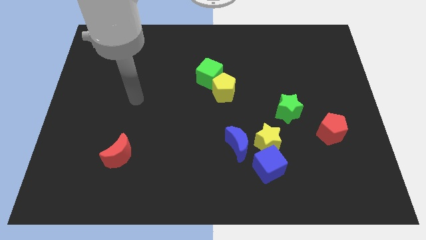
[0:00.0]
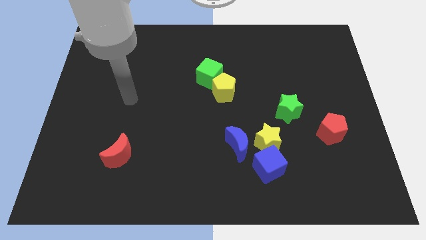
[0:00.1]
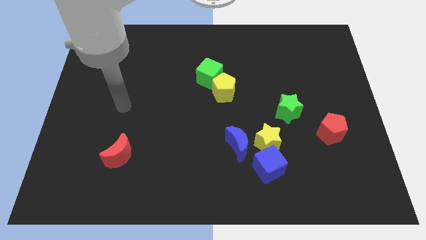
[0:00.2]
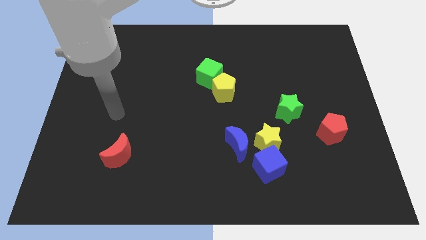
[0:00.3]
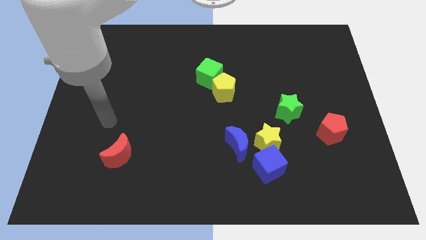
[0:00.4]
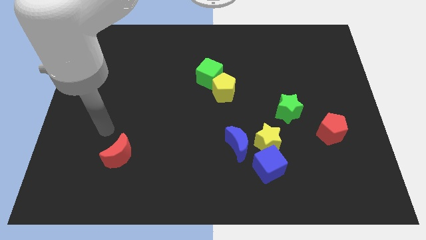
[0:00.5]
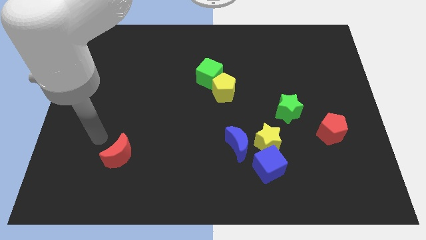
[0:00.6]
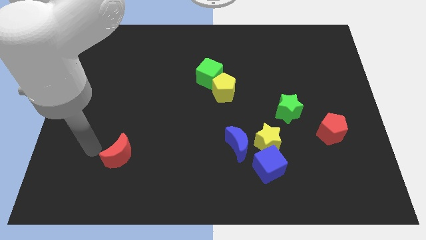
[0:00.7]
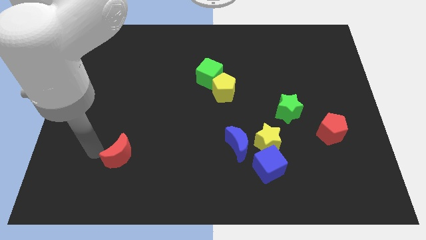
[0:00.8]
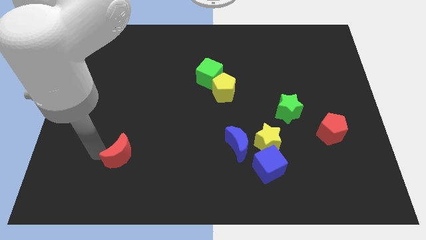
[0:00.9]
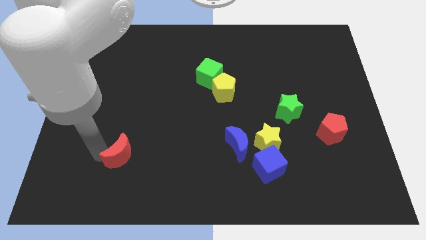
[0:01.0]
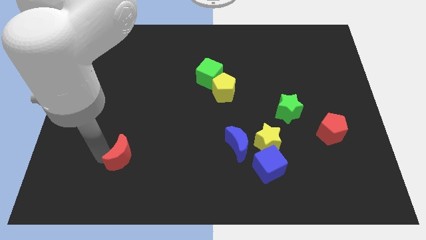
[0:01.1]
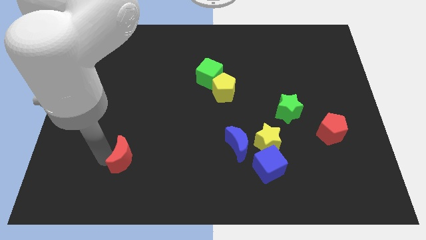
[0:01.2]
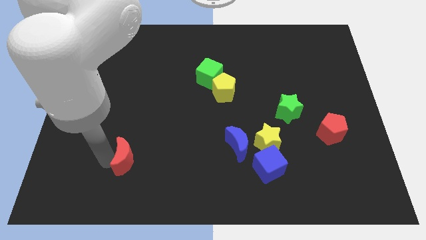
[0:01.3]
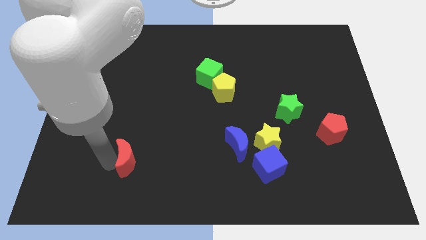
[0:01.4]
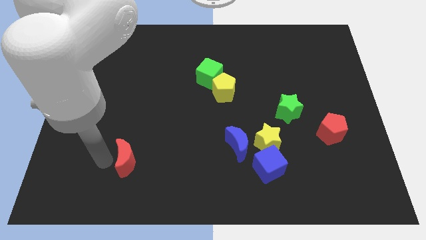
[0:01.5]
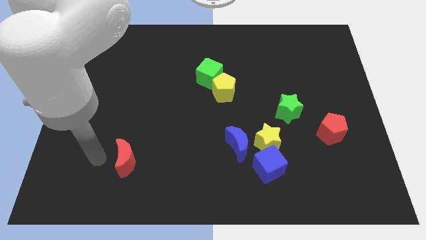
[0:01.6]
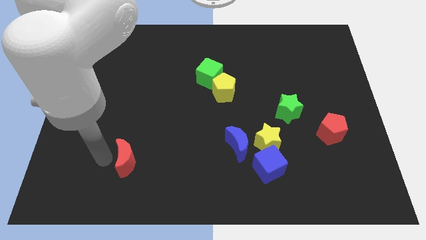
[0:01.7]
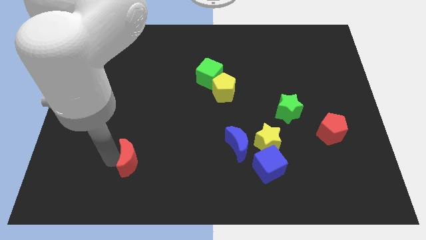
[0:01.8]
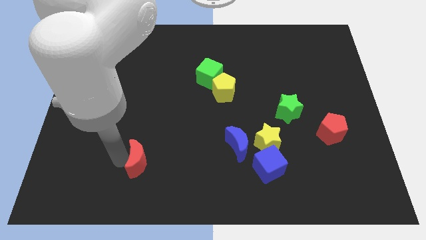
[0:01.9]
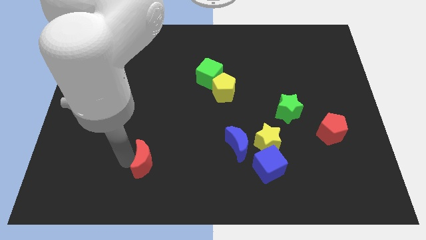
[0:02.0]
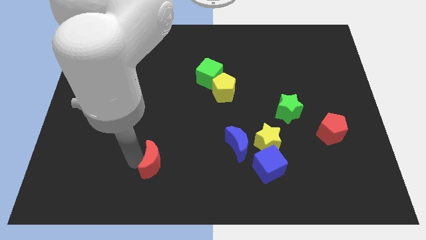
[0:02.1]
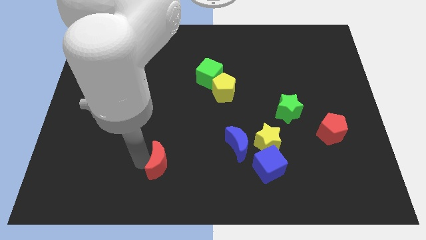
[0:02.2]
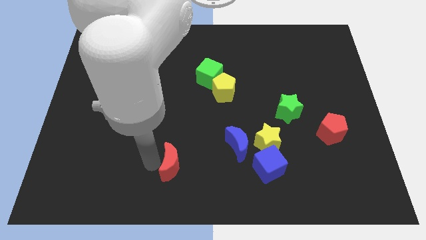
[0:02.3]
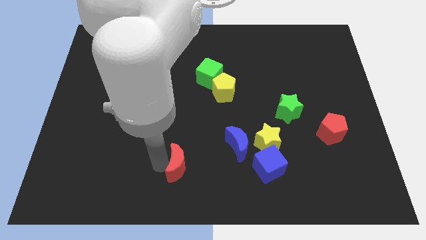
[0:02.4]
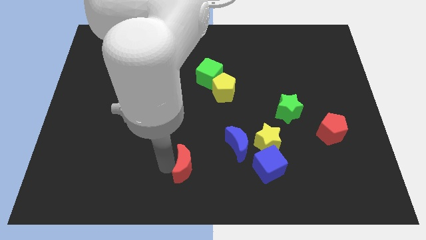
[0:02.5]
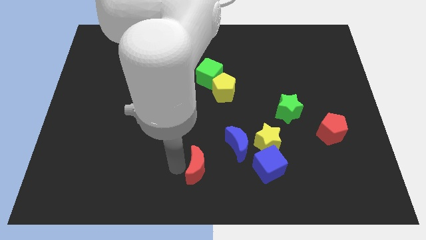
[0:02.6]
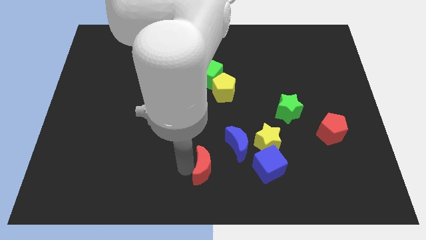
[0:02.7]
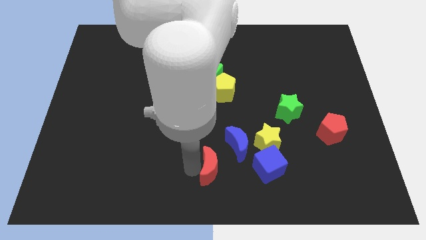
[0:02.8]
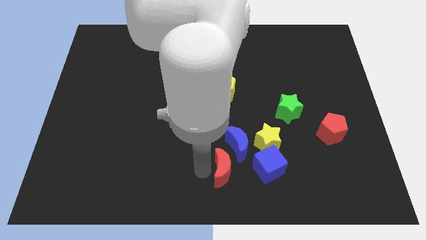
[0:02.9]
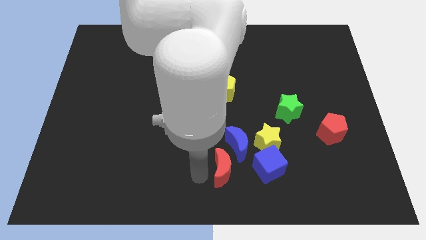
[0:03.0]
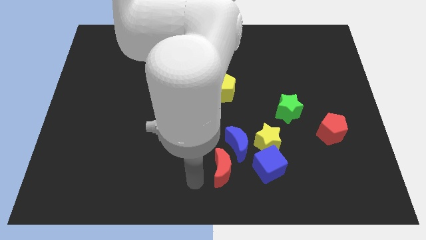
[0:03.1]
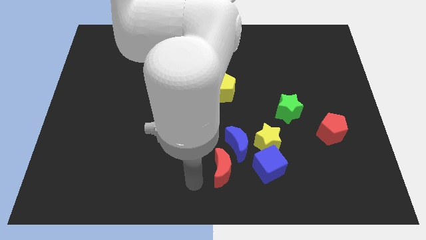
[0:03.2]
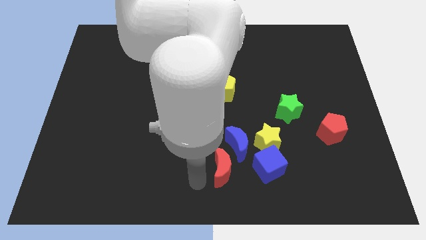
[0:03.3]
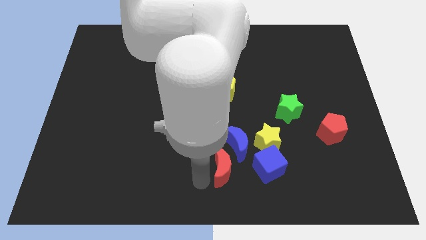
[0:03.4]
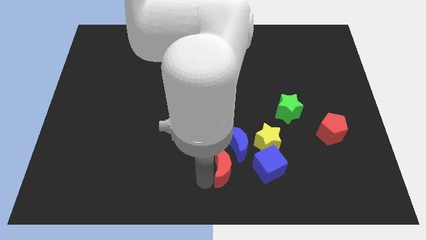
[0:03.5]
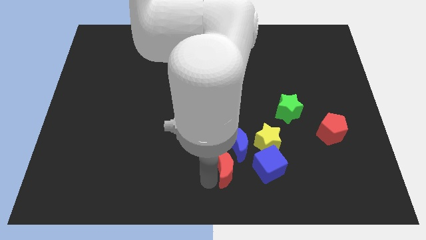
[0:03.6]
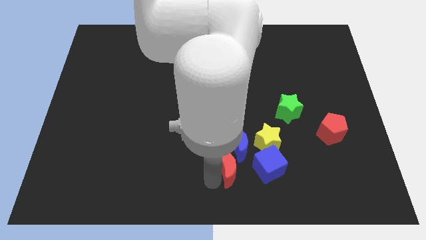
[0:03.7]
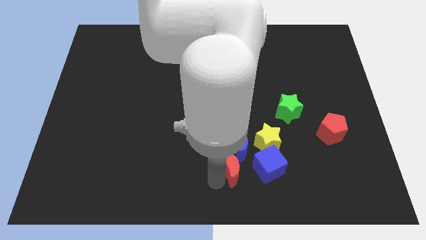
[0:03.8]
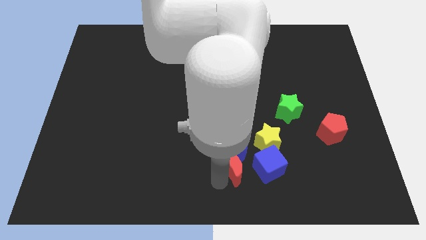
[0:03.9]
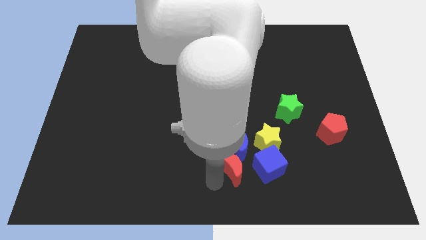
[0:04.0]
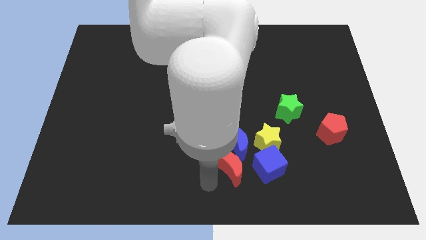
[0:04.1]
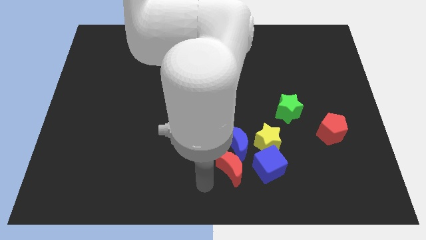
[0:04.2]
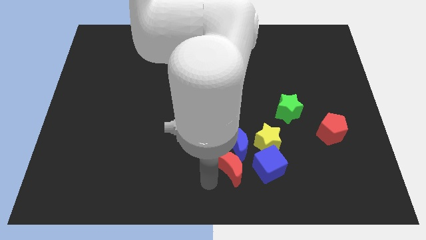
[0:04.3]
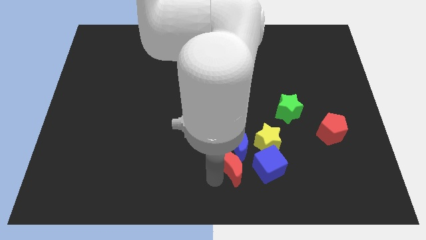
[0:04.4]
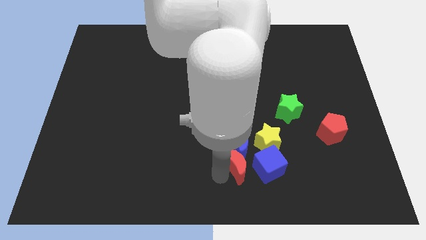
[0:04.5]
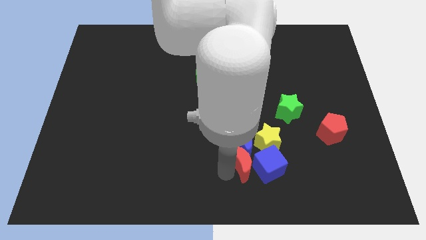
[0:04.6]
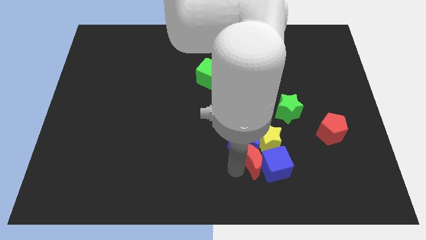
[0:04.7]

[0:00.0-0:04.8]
push the red moon next to the yellow star

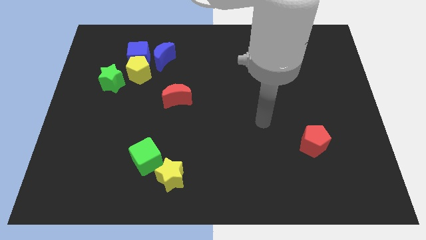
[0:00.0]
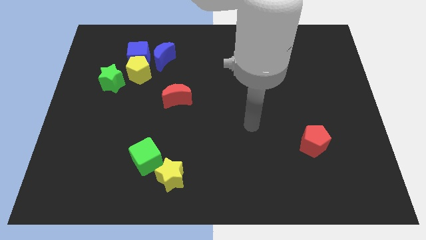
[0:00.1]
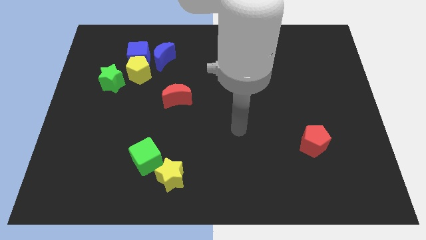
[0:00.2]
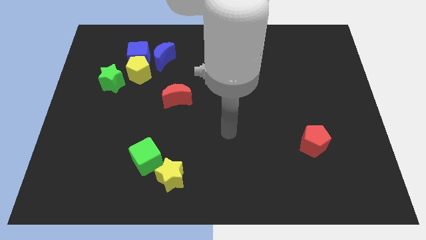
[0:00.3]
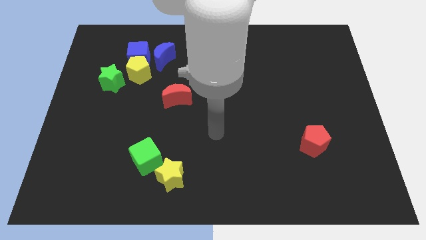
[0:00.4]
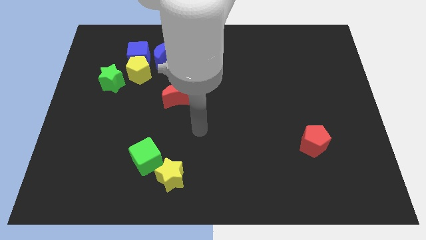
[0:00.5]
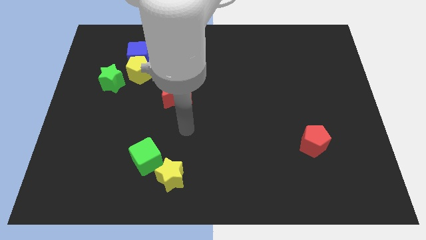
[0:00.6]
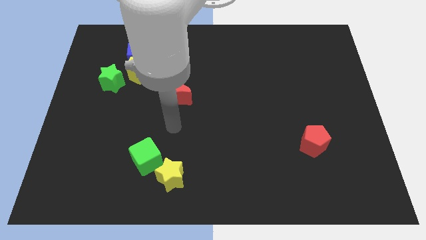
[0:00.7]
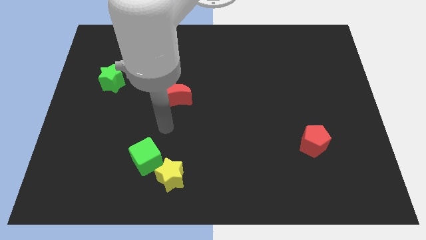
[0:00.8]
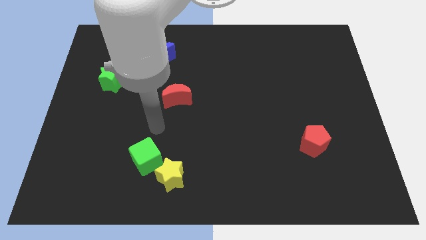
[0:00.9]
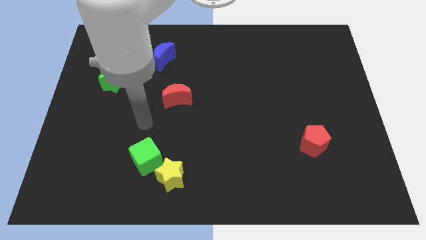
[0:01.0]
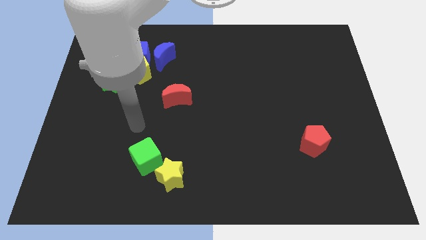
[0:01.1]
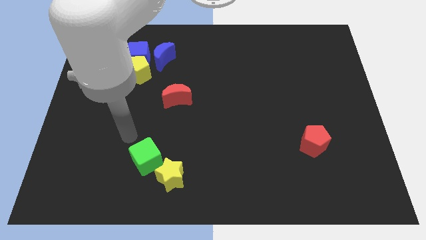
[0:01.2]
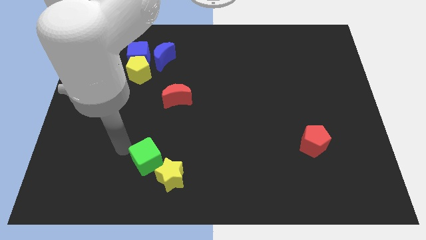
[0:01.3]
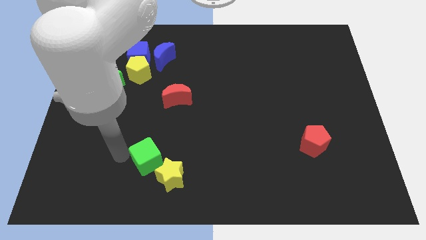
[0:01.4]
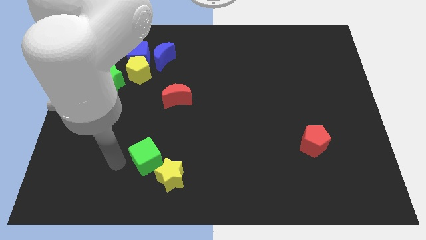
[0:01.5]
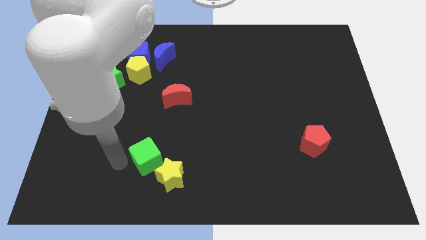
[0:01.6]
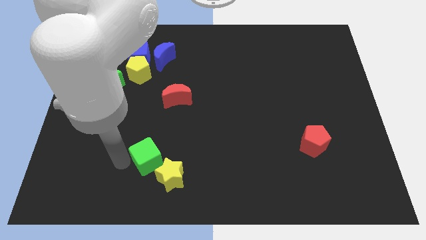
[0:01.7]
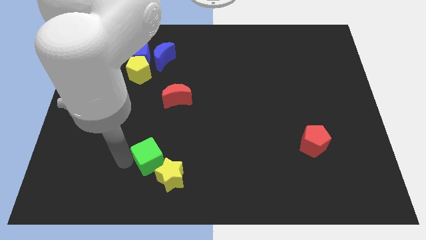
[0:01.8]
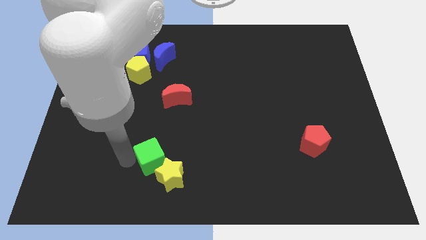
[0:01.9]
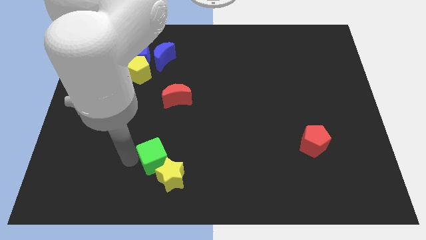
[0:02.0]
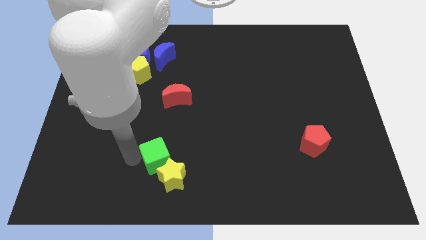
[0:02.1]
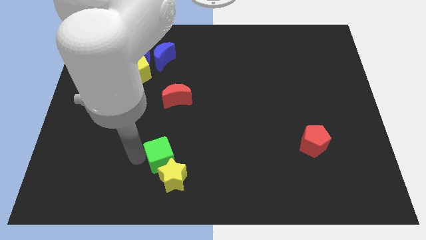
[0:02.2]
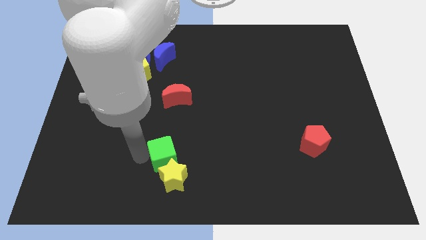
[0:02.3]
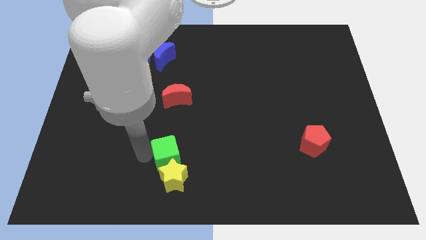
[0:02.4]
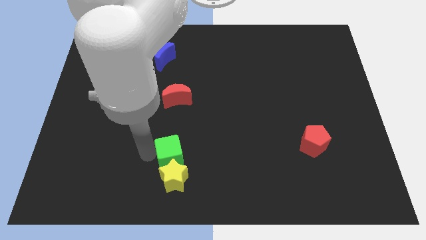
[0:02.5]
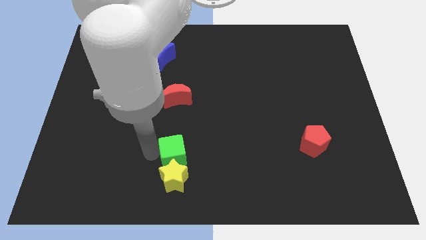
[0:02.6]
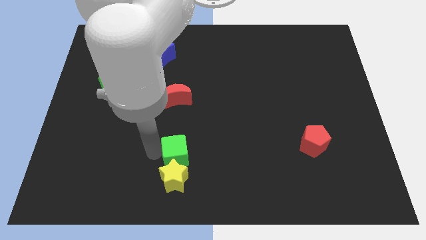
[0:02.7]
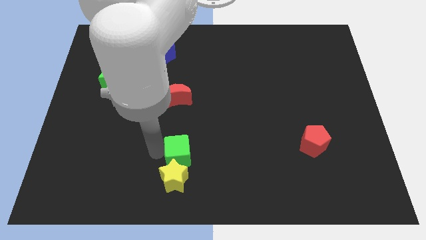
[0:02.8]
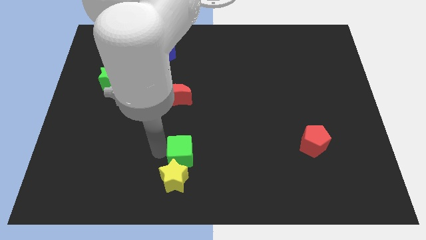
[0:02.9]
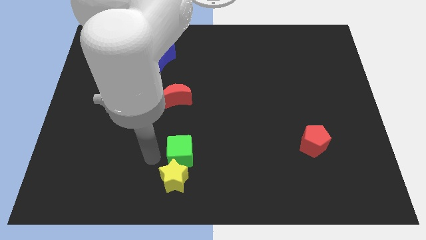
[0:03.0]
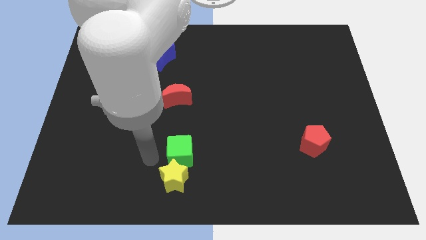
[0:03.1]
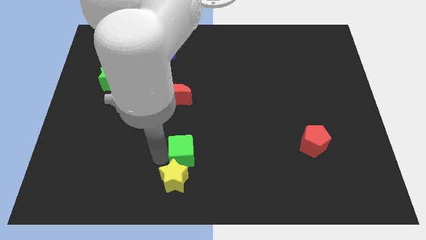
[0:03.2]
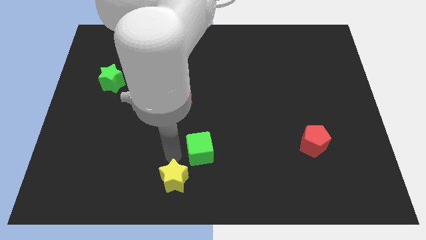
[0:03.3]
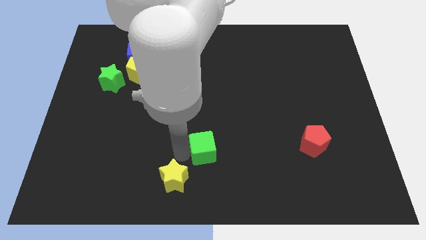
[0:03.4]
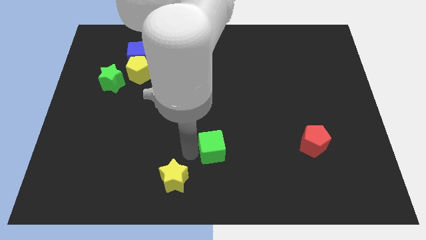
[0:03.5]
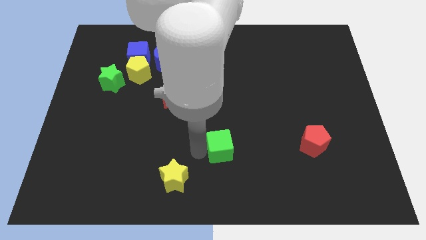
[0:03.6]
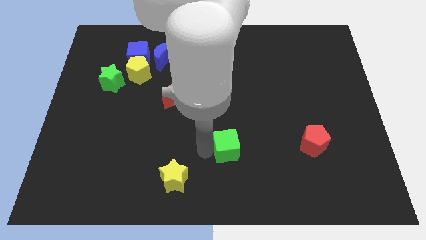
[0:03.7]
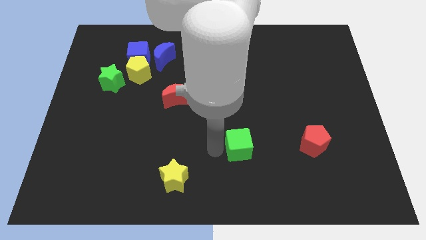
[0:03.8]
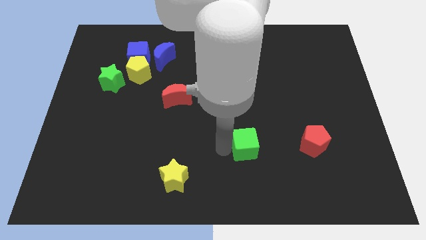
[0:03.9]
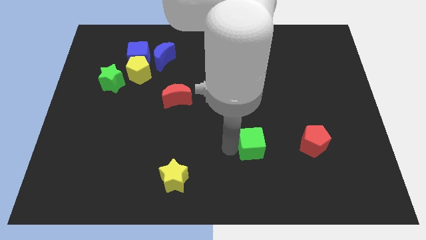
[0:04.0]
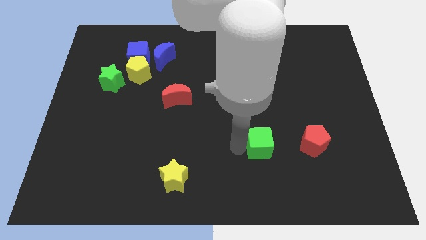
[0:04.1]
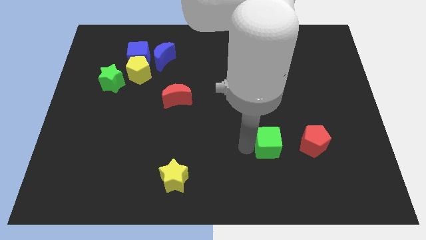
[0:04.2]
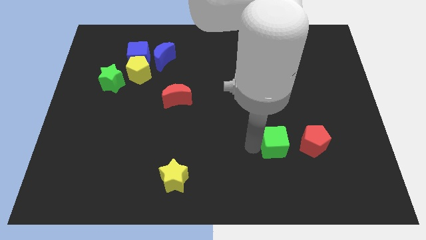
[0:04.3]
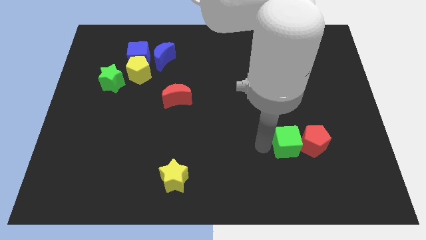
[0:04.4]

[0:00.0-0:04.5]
put the green cube next to the red pentagon
